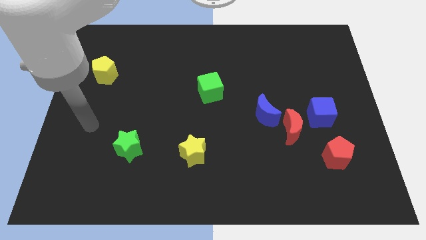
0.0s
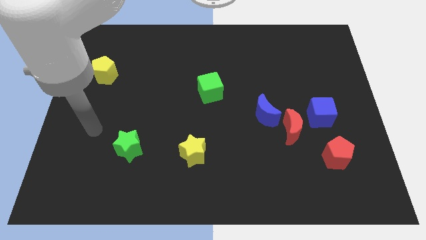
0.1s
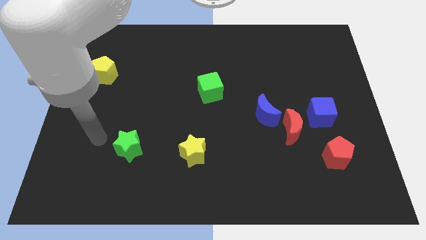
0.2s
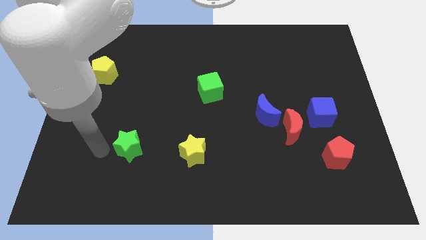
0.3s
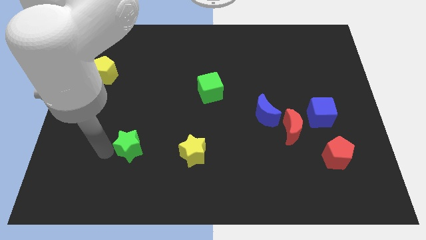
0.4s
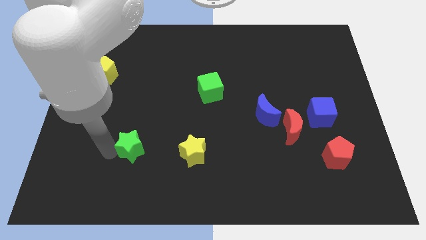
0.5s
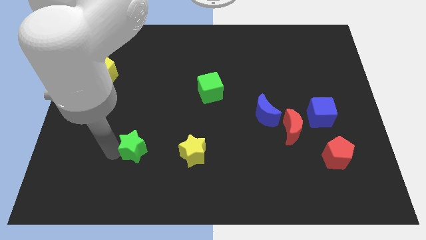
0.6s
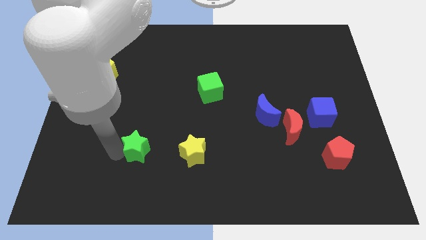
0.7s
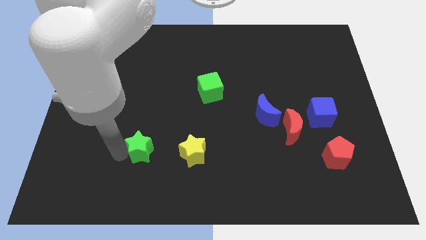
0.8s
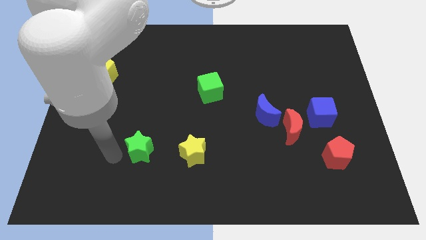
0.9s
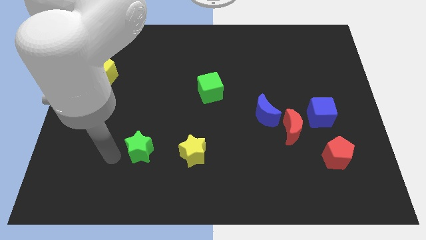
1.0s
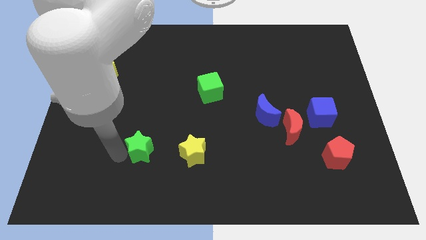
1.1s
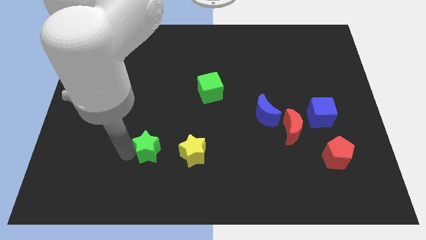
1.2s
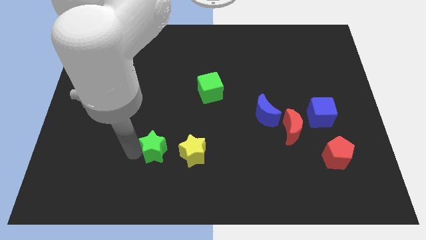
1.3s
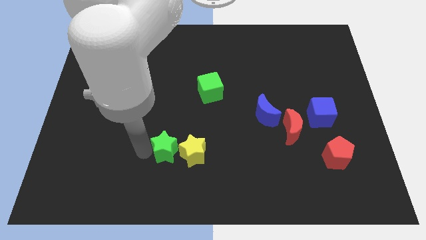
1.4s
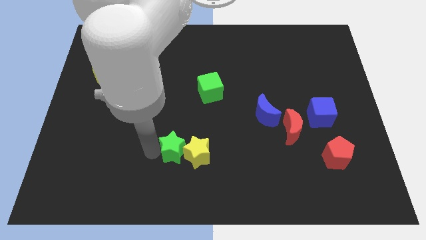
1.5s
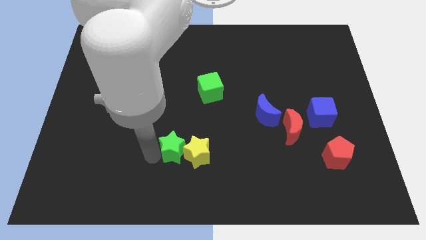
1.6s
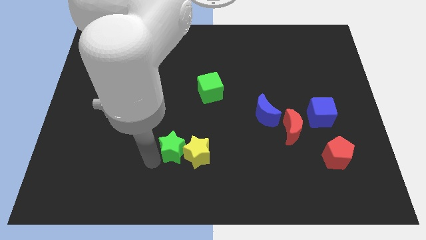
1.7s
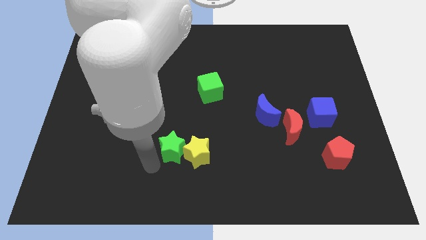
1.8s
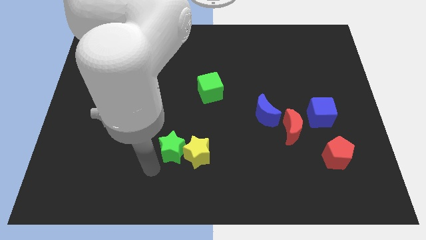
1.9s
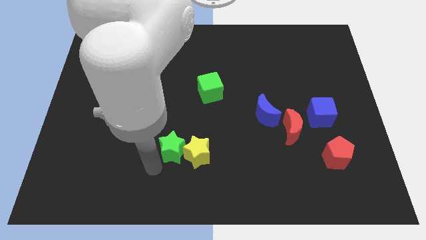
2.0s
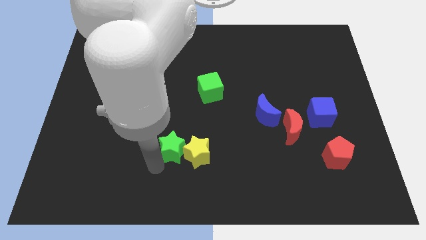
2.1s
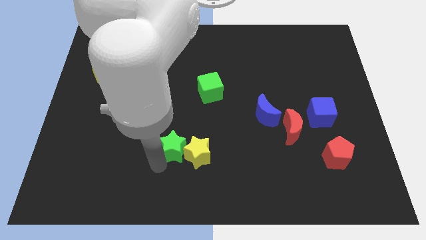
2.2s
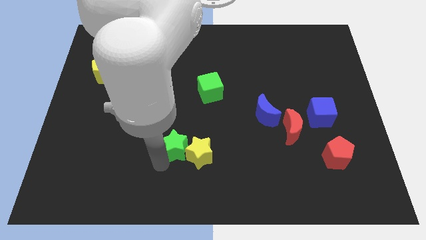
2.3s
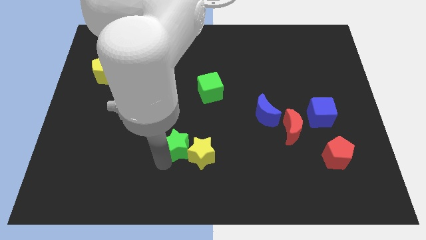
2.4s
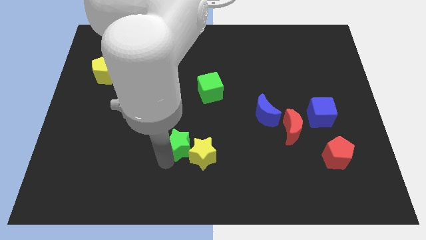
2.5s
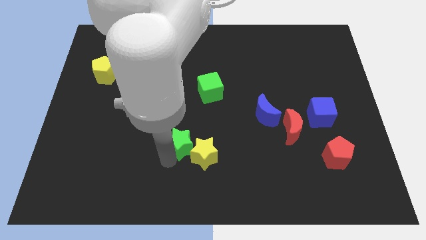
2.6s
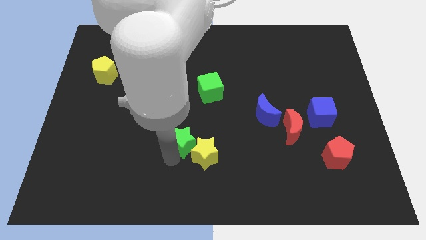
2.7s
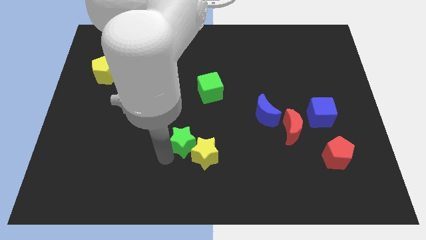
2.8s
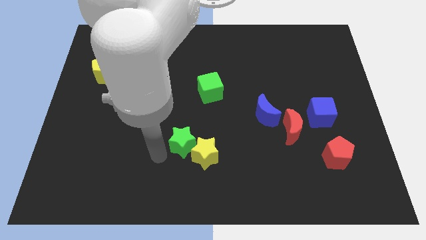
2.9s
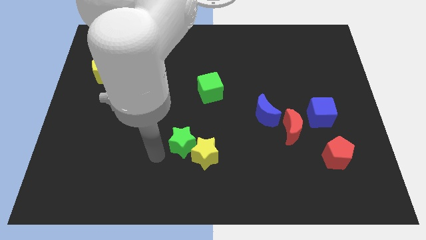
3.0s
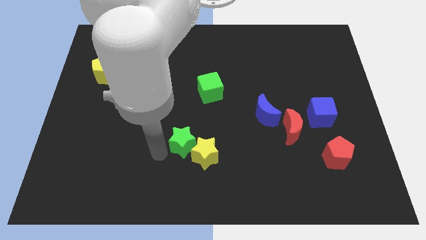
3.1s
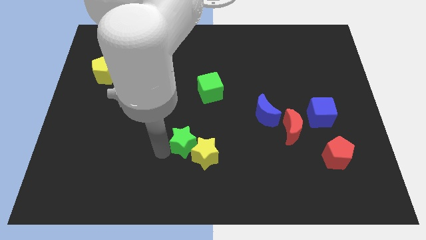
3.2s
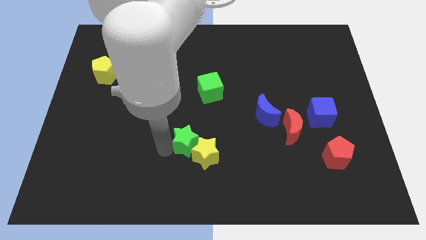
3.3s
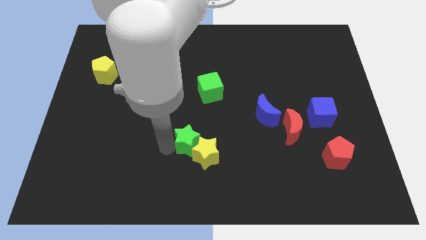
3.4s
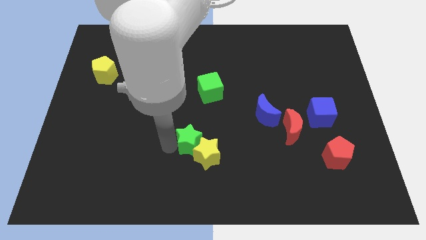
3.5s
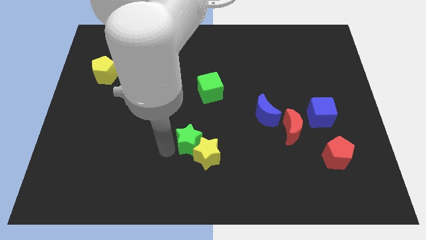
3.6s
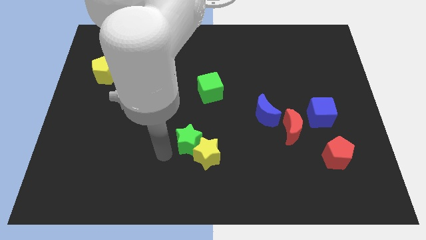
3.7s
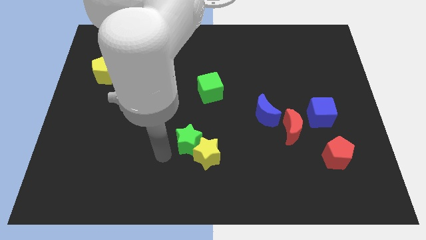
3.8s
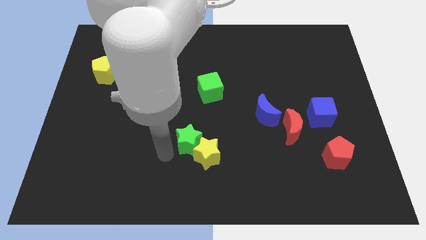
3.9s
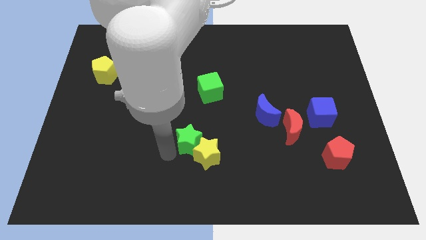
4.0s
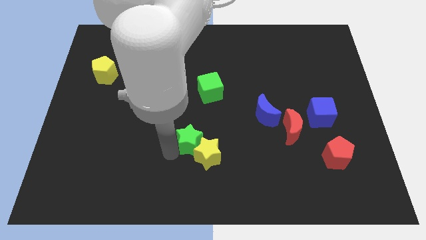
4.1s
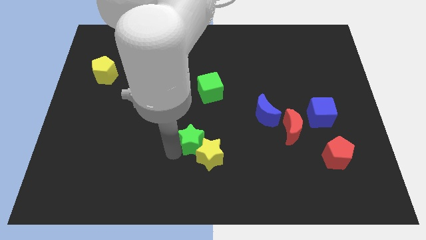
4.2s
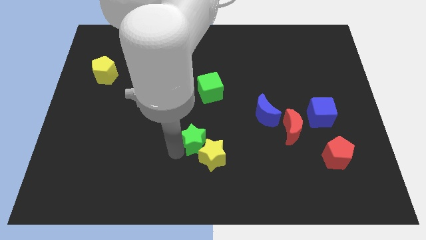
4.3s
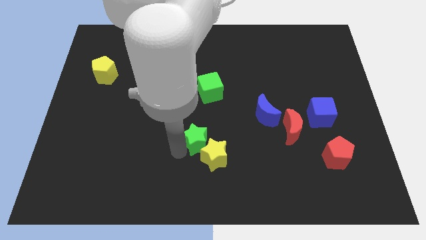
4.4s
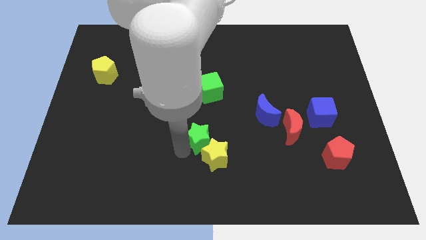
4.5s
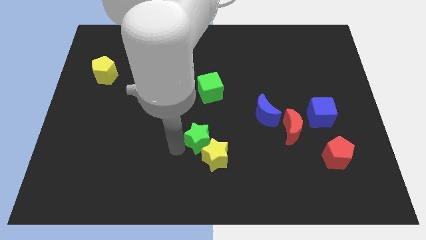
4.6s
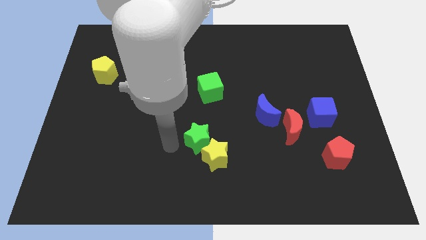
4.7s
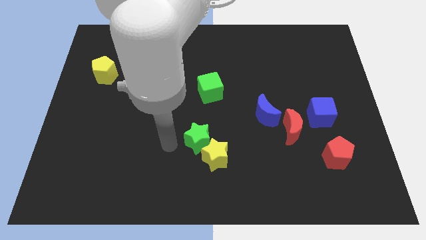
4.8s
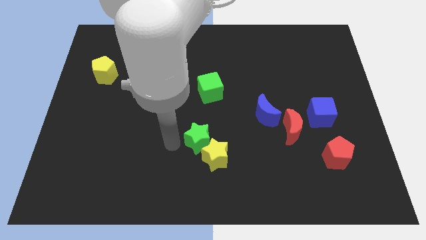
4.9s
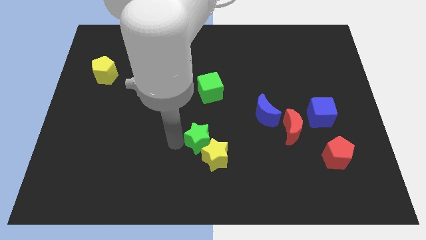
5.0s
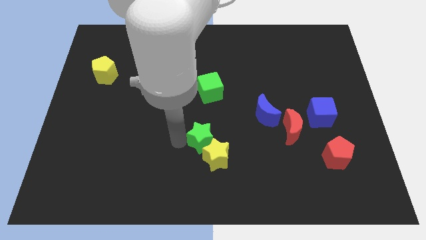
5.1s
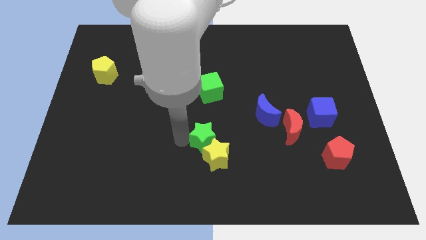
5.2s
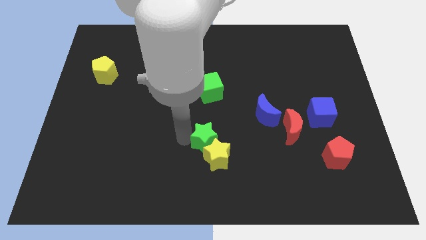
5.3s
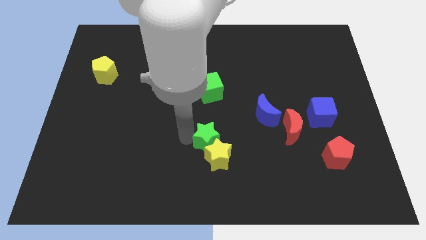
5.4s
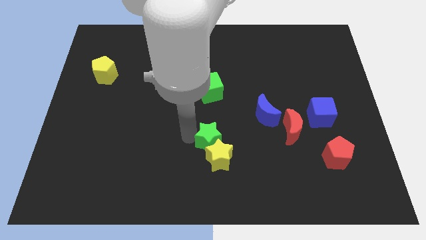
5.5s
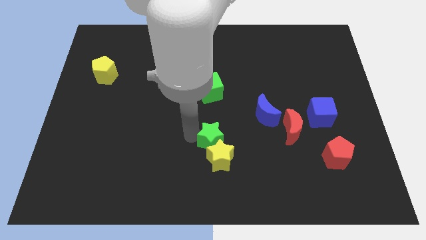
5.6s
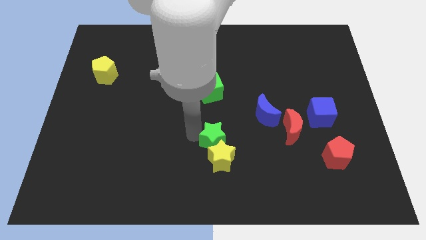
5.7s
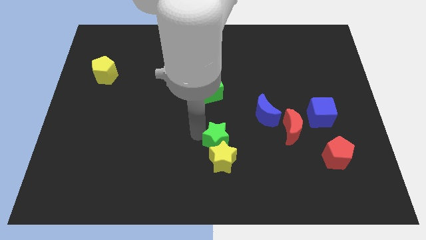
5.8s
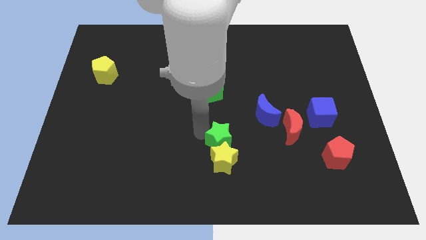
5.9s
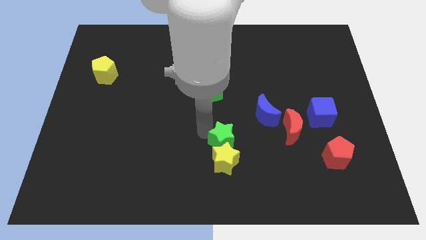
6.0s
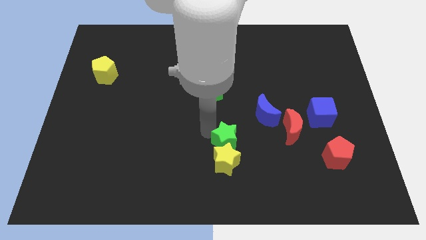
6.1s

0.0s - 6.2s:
push the green star right

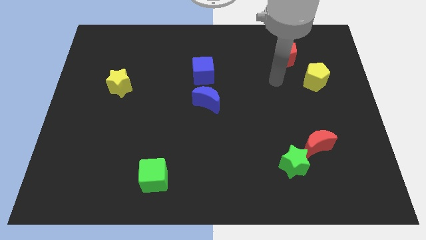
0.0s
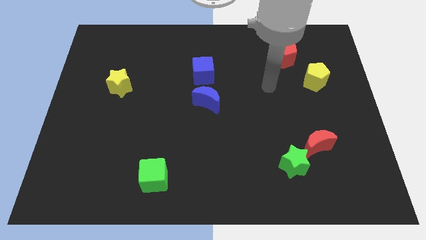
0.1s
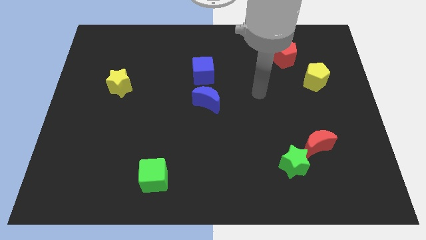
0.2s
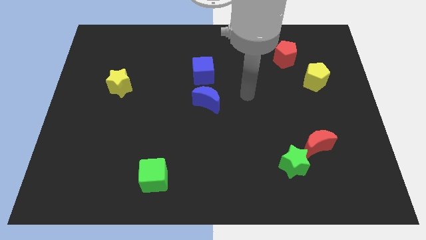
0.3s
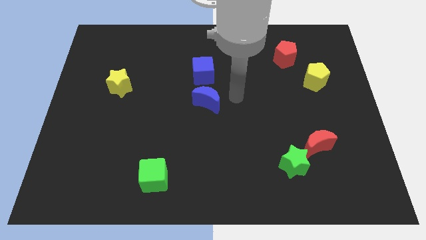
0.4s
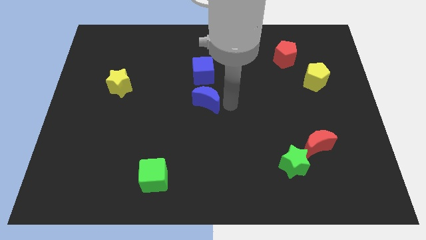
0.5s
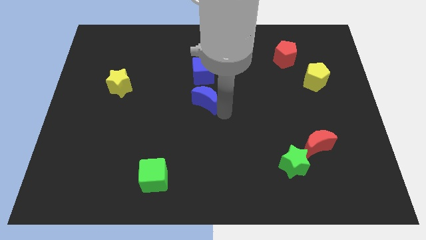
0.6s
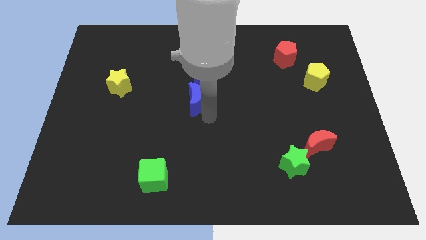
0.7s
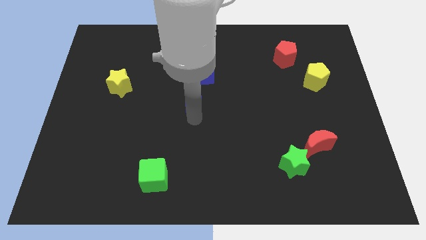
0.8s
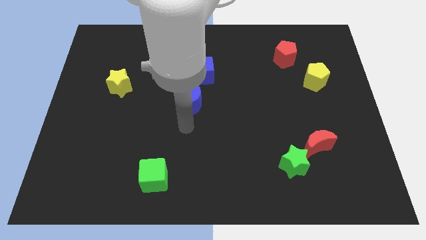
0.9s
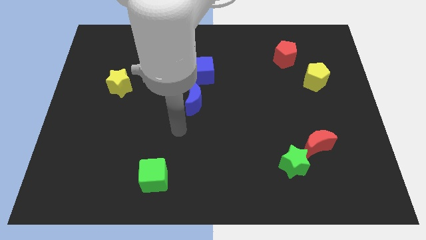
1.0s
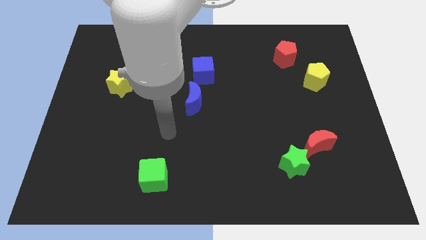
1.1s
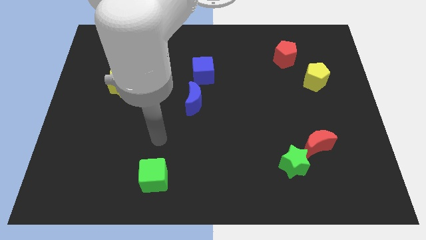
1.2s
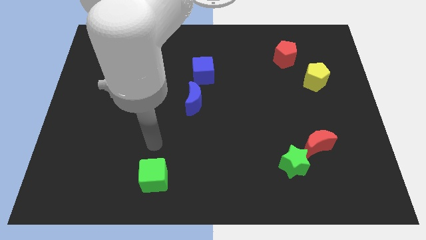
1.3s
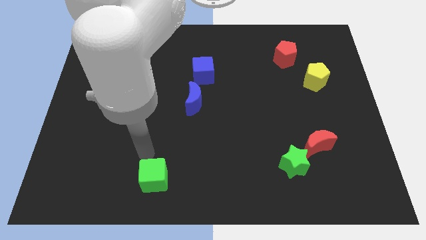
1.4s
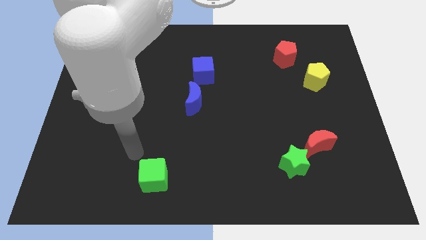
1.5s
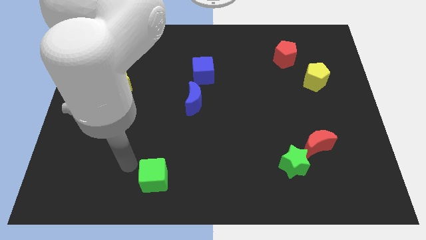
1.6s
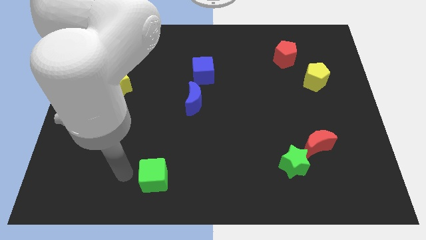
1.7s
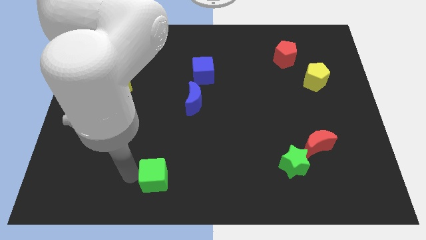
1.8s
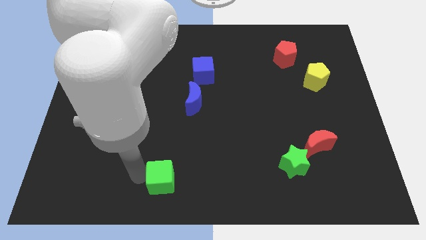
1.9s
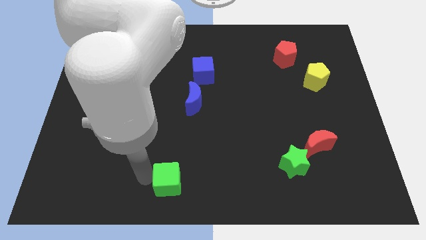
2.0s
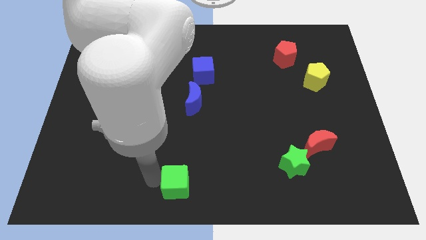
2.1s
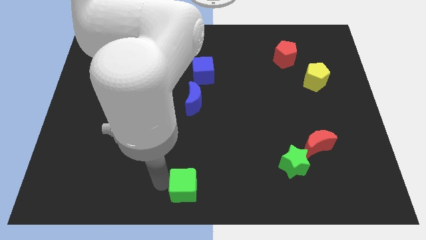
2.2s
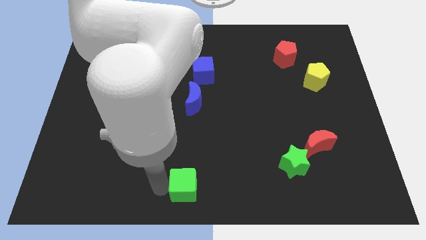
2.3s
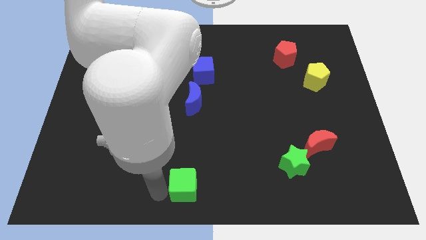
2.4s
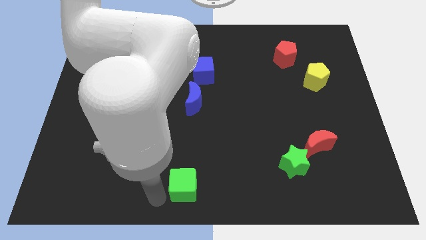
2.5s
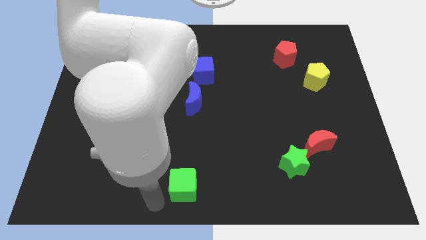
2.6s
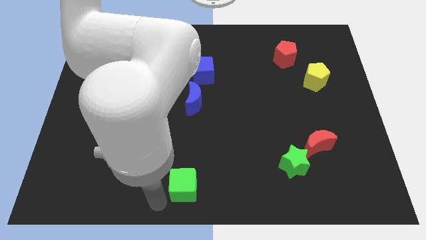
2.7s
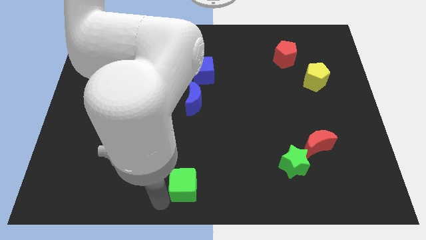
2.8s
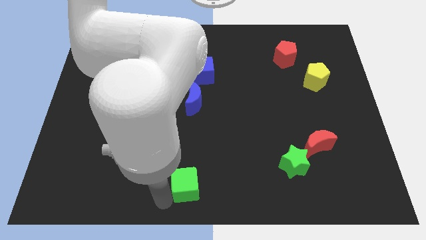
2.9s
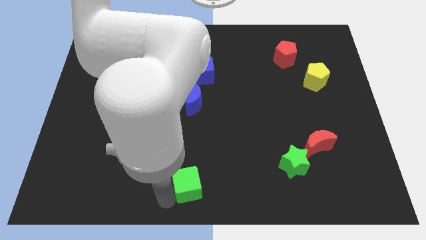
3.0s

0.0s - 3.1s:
slightly move the green cube to the right
